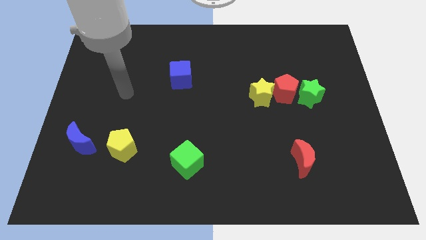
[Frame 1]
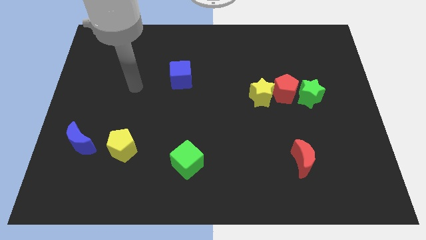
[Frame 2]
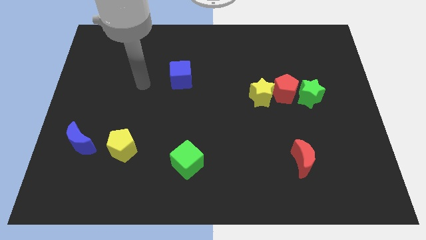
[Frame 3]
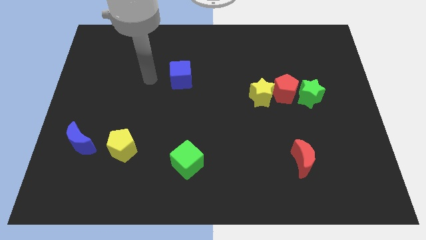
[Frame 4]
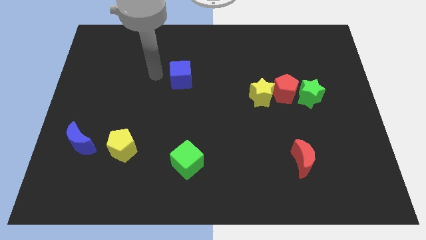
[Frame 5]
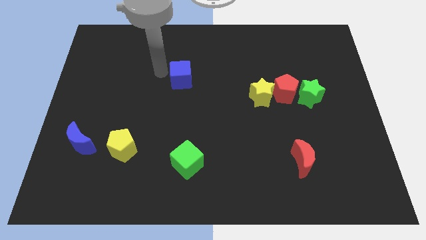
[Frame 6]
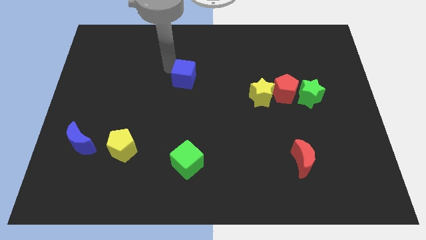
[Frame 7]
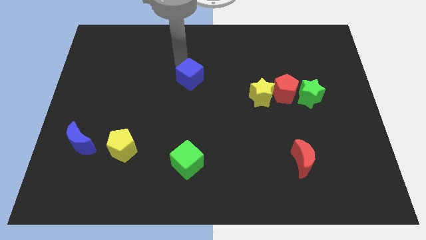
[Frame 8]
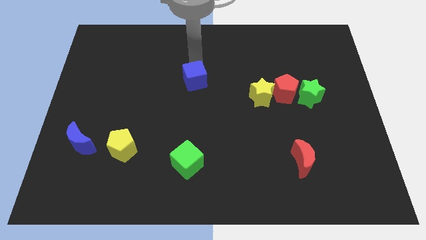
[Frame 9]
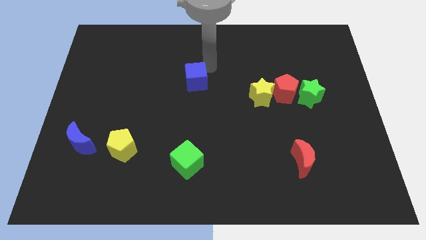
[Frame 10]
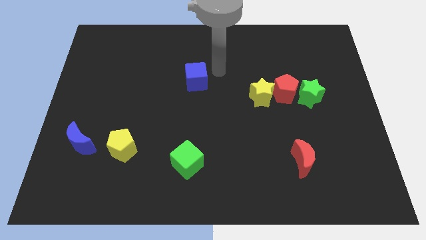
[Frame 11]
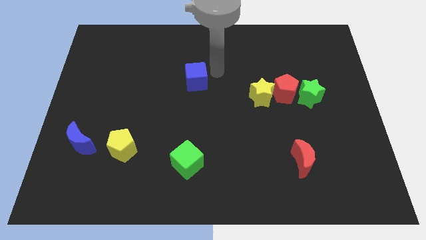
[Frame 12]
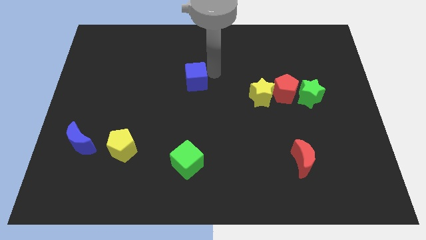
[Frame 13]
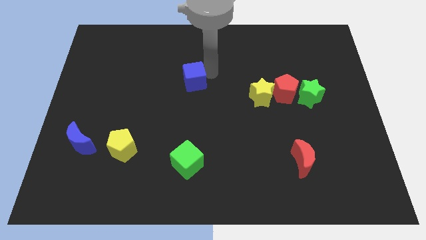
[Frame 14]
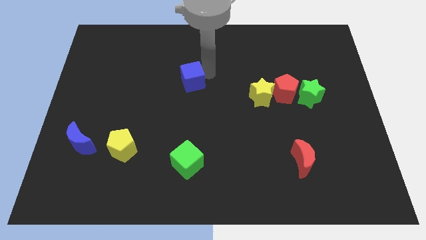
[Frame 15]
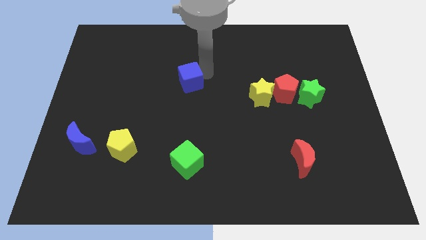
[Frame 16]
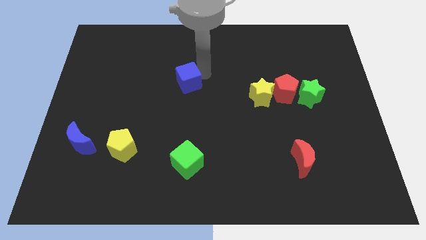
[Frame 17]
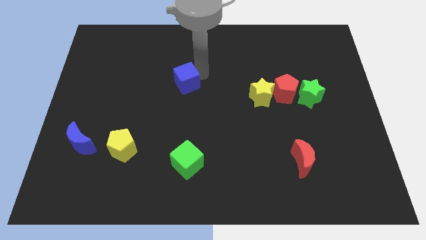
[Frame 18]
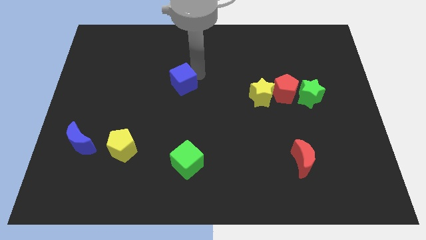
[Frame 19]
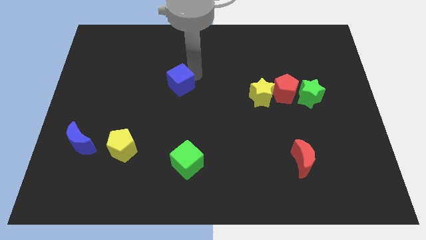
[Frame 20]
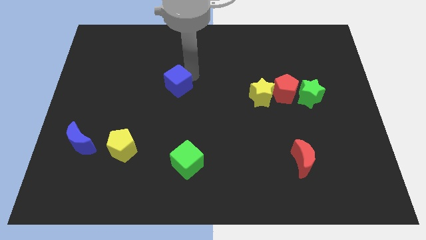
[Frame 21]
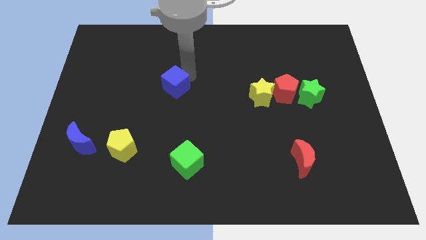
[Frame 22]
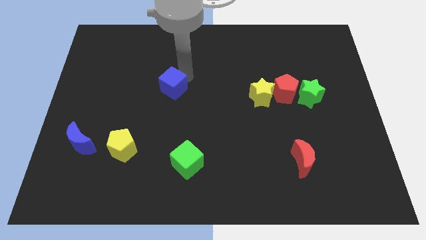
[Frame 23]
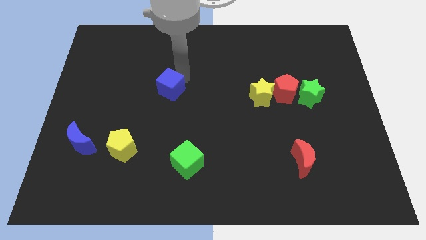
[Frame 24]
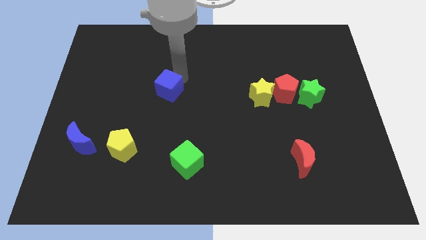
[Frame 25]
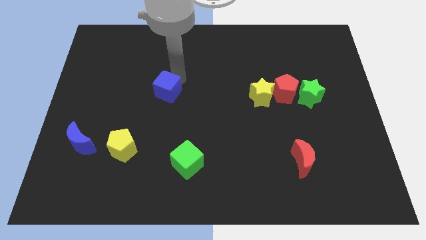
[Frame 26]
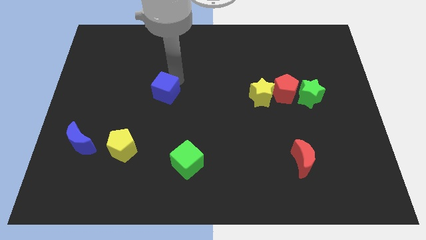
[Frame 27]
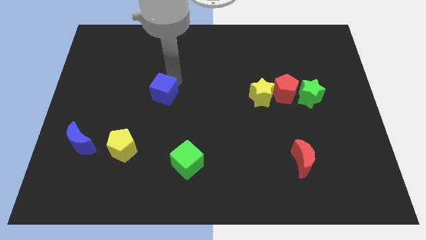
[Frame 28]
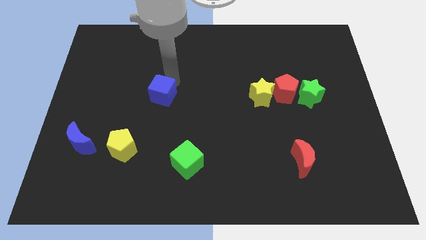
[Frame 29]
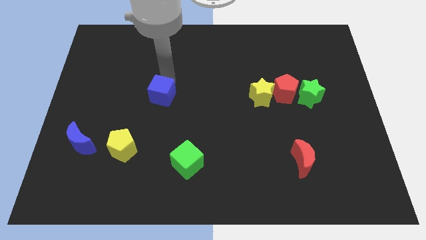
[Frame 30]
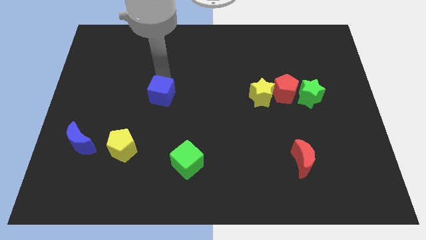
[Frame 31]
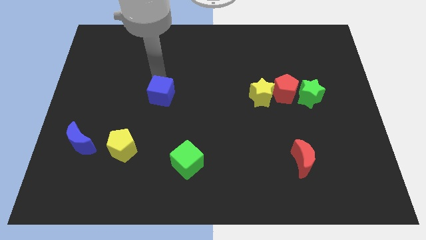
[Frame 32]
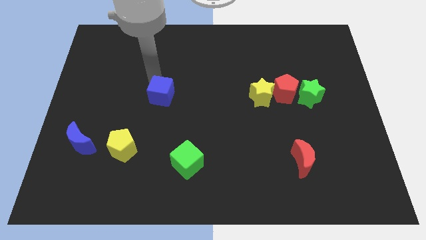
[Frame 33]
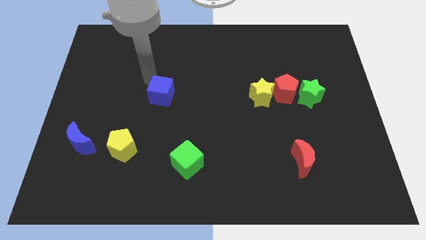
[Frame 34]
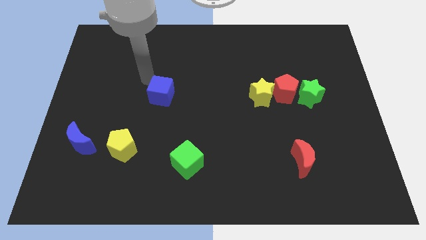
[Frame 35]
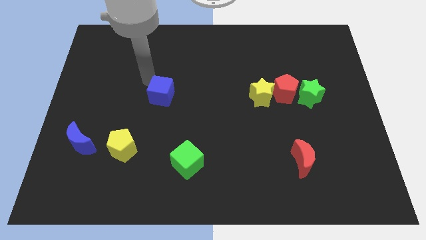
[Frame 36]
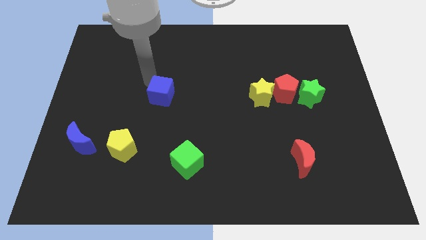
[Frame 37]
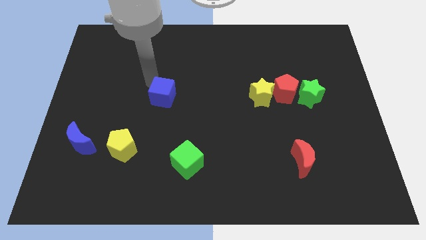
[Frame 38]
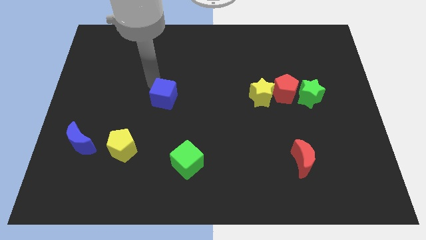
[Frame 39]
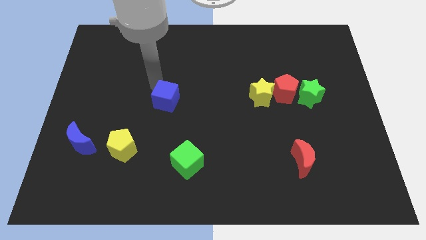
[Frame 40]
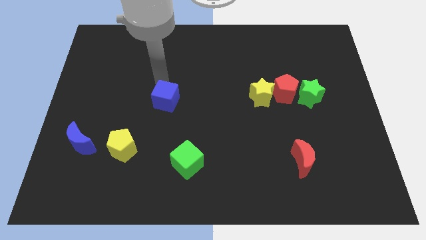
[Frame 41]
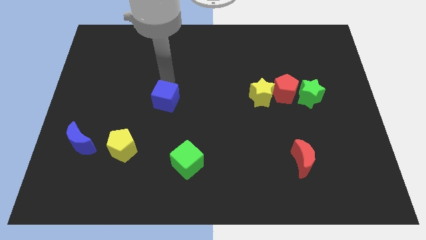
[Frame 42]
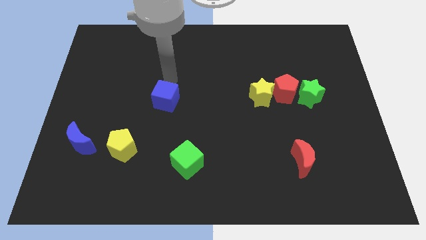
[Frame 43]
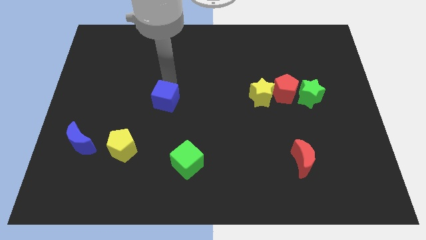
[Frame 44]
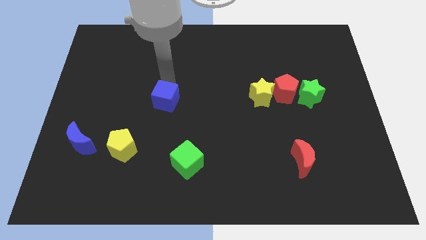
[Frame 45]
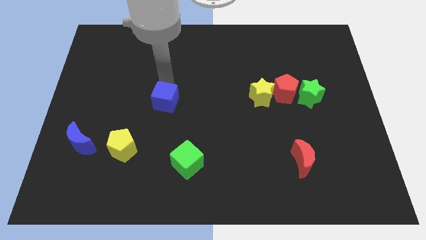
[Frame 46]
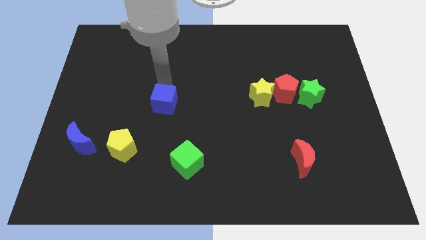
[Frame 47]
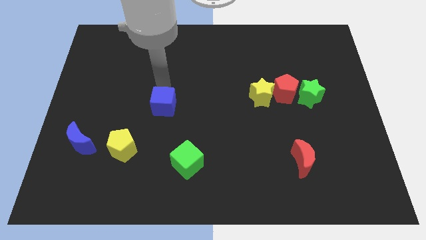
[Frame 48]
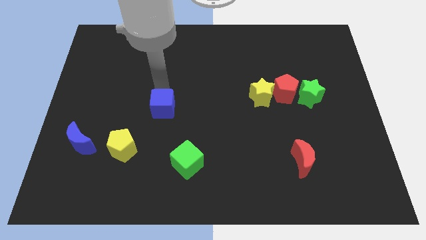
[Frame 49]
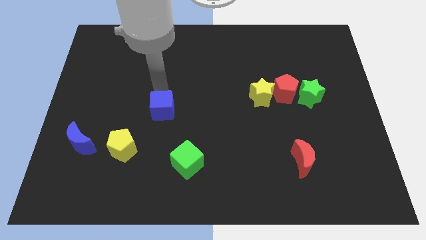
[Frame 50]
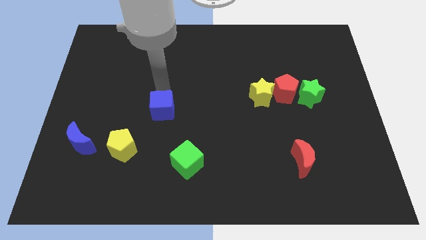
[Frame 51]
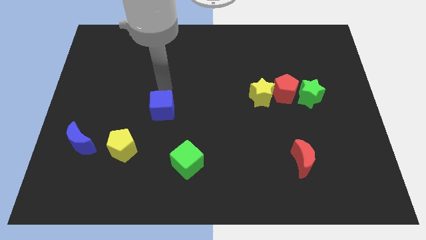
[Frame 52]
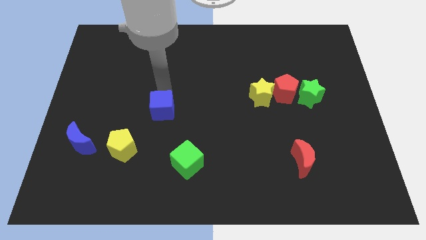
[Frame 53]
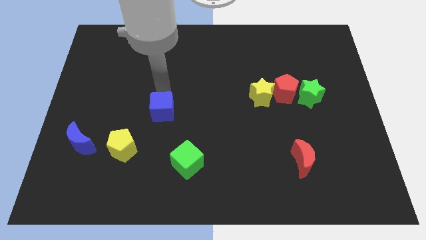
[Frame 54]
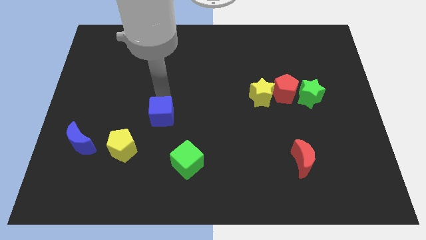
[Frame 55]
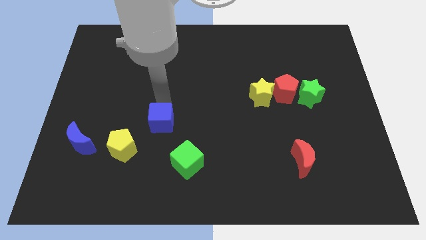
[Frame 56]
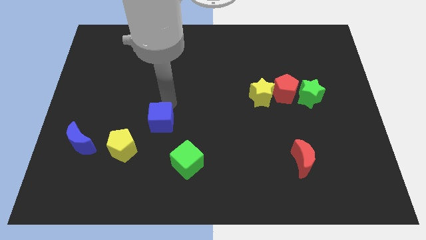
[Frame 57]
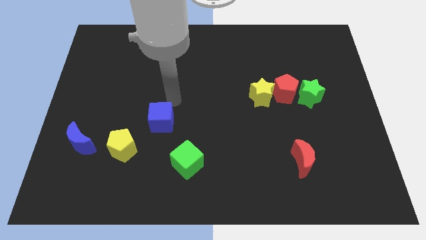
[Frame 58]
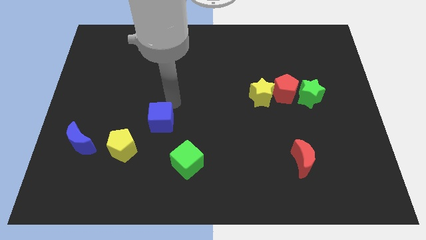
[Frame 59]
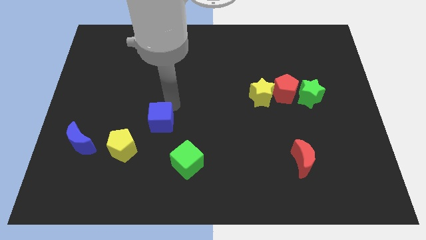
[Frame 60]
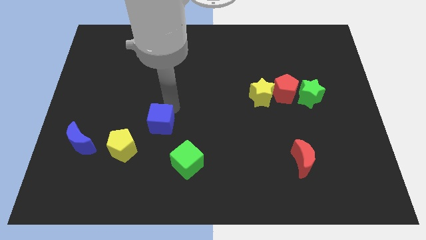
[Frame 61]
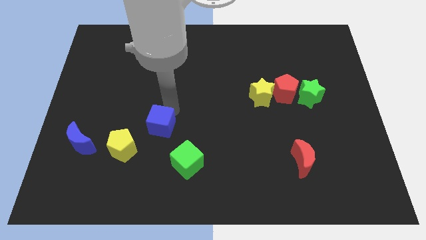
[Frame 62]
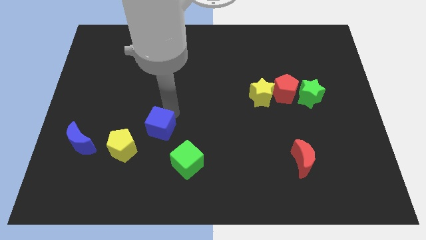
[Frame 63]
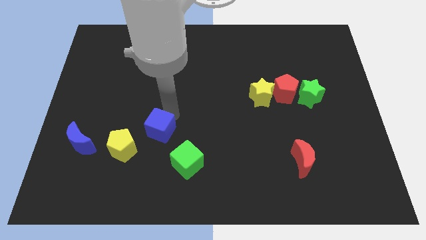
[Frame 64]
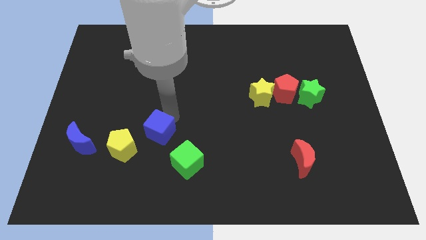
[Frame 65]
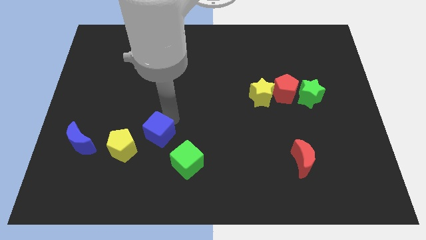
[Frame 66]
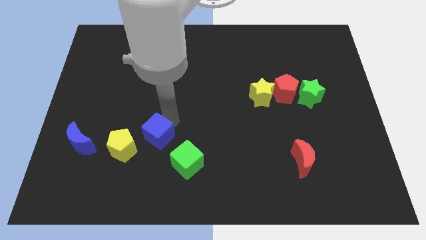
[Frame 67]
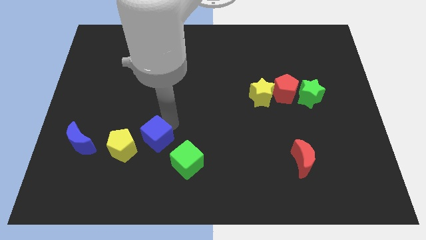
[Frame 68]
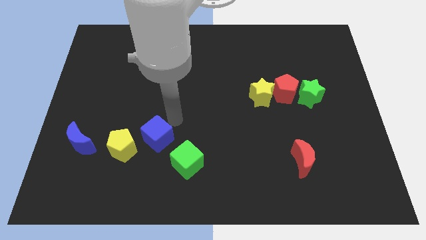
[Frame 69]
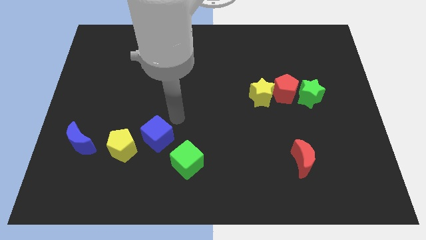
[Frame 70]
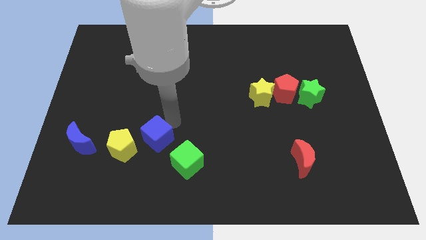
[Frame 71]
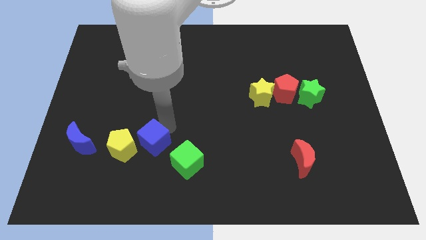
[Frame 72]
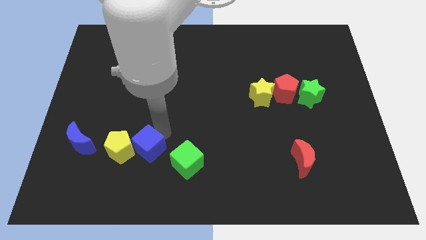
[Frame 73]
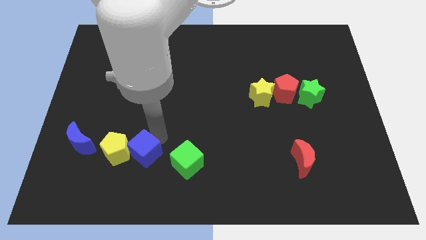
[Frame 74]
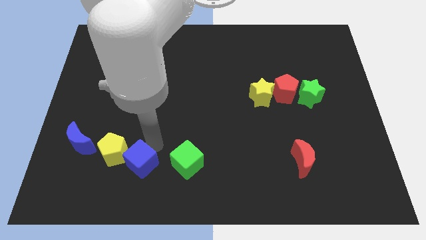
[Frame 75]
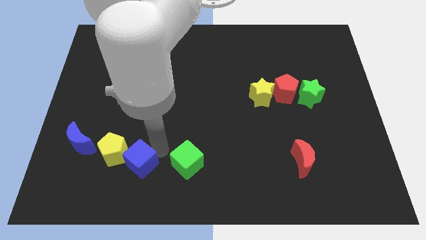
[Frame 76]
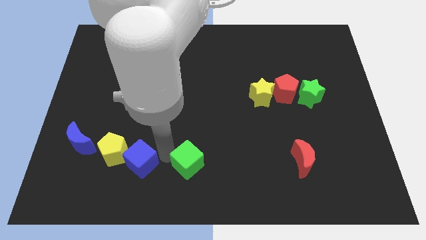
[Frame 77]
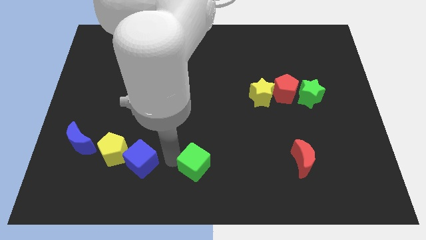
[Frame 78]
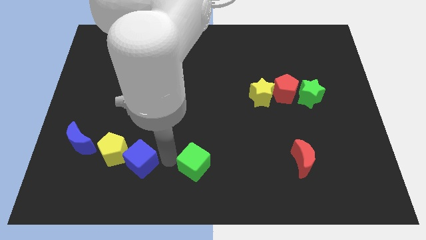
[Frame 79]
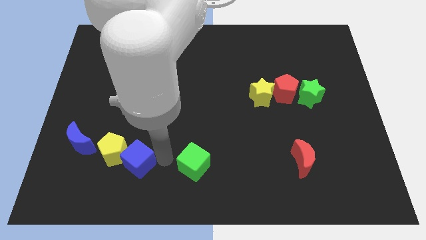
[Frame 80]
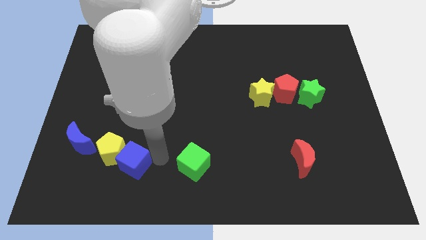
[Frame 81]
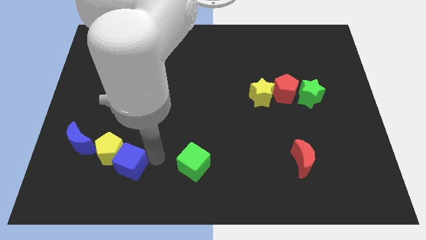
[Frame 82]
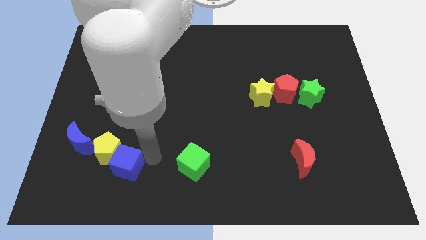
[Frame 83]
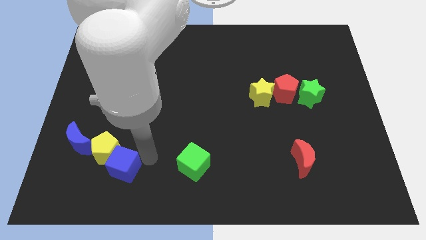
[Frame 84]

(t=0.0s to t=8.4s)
put the blue cube to the bottom right of the blue moon
